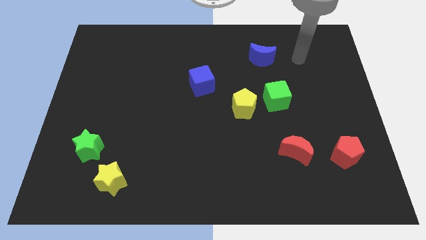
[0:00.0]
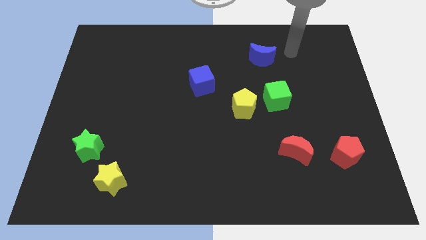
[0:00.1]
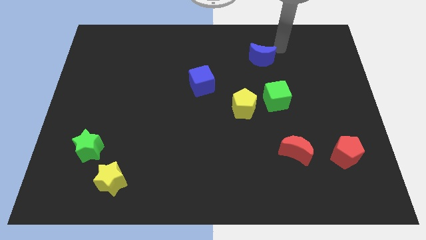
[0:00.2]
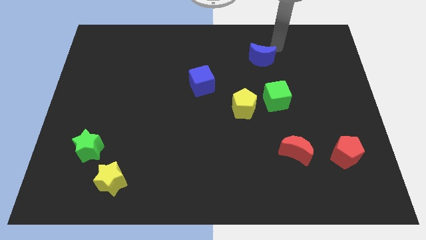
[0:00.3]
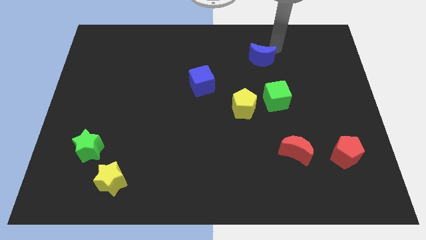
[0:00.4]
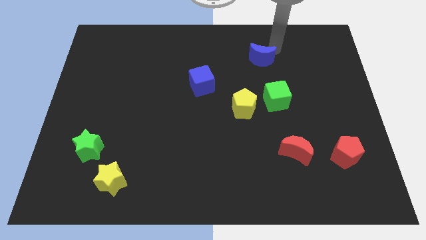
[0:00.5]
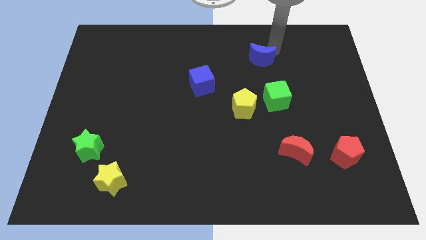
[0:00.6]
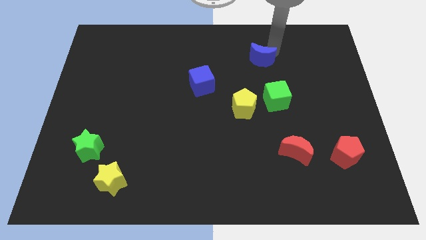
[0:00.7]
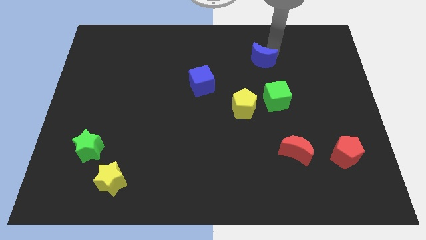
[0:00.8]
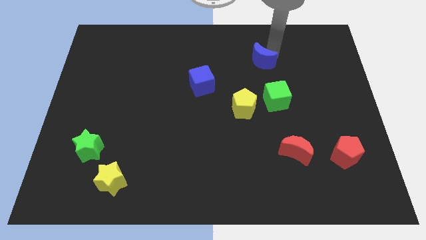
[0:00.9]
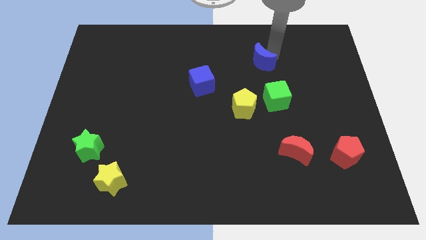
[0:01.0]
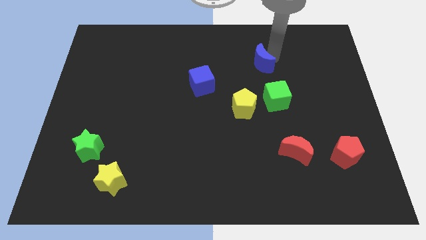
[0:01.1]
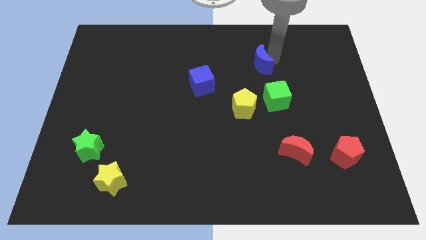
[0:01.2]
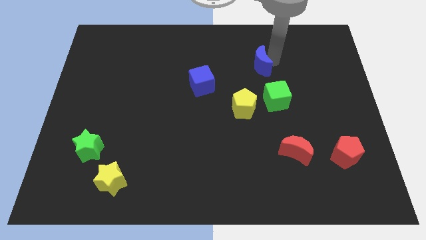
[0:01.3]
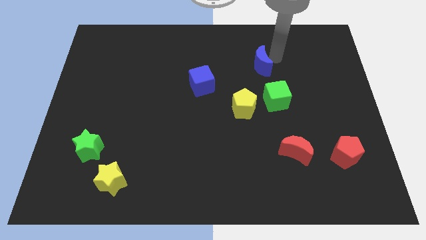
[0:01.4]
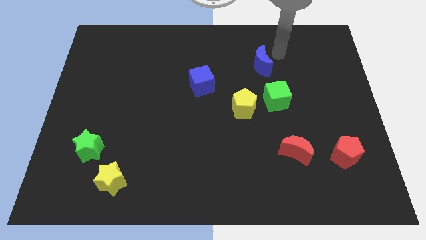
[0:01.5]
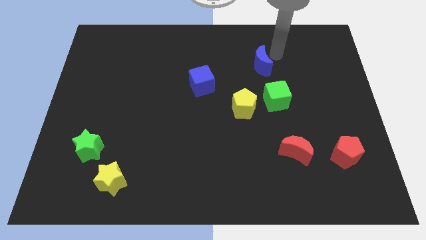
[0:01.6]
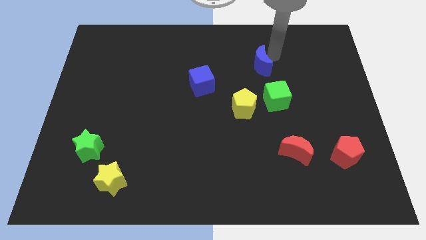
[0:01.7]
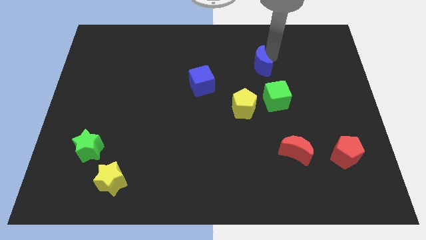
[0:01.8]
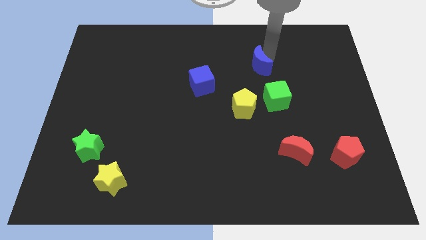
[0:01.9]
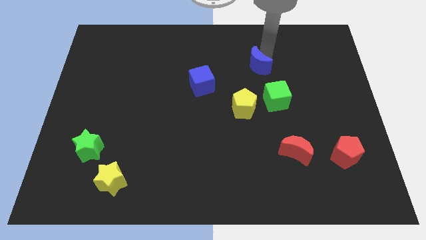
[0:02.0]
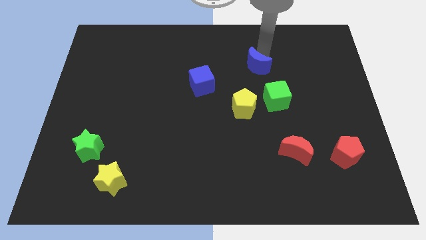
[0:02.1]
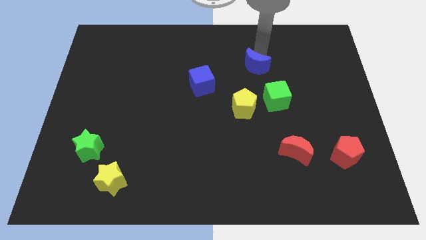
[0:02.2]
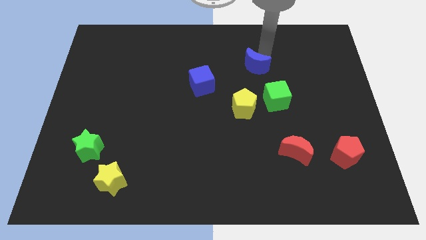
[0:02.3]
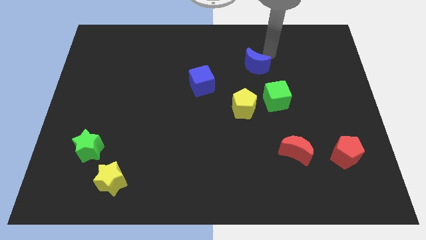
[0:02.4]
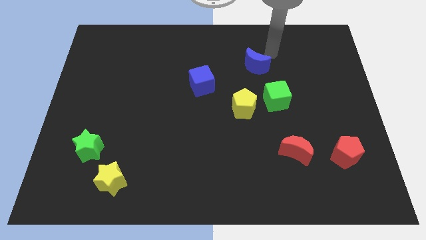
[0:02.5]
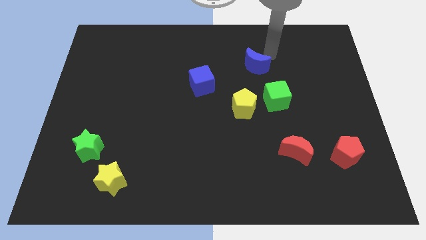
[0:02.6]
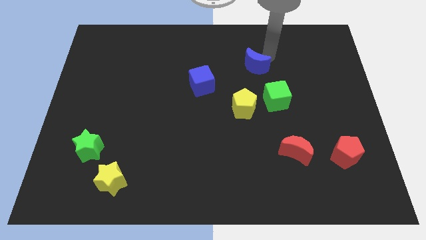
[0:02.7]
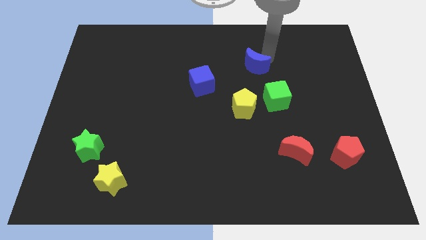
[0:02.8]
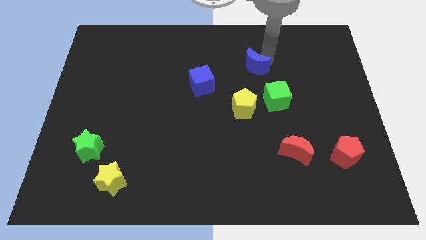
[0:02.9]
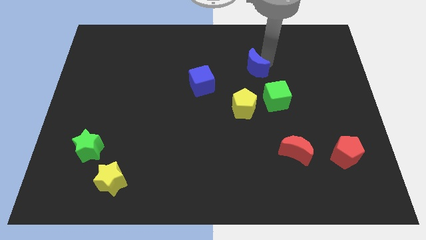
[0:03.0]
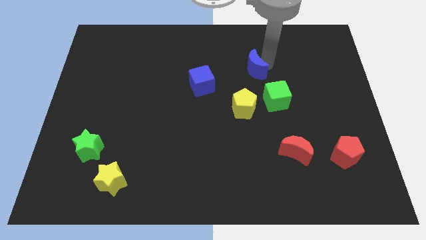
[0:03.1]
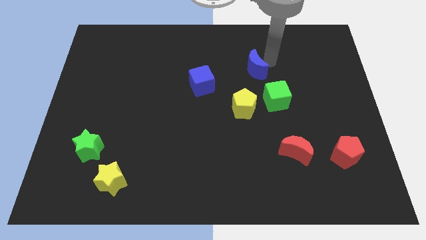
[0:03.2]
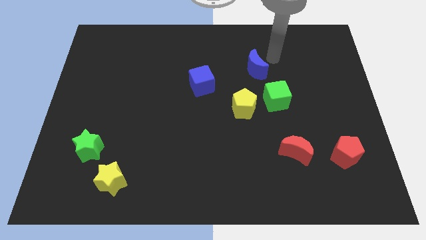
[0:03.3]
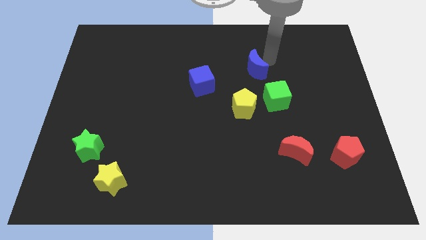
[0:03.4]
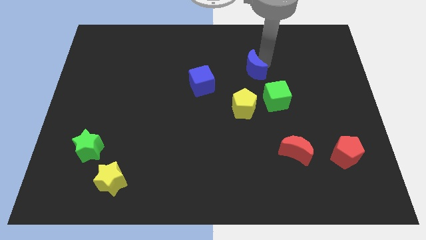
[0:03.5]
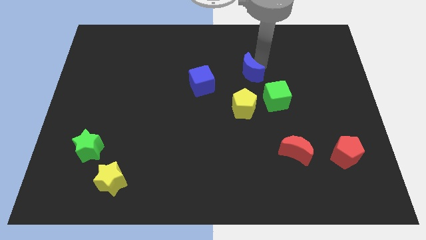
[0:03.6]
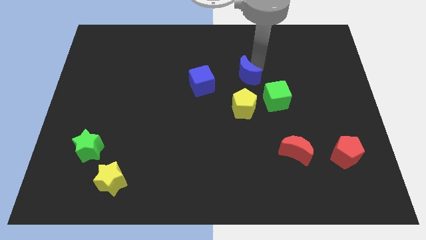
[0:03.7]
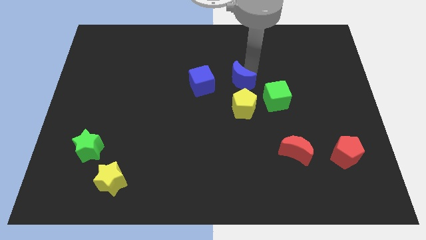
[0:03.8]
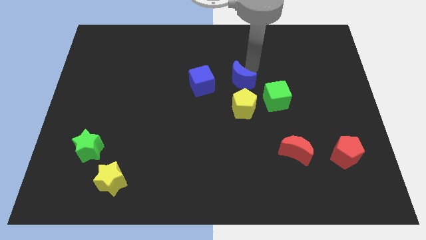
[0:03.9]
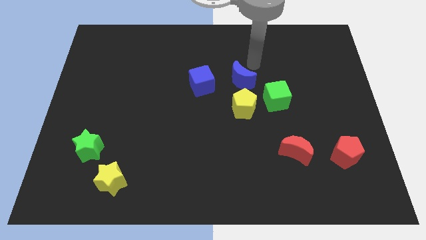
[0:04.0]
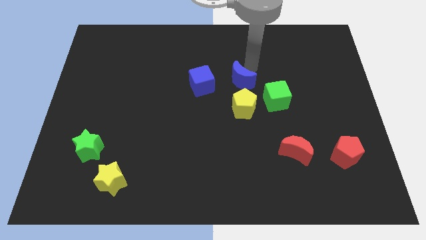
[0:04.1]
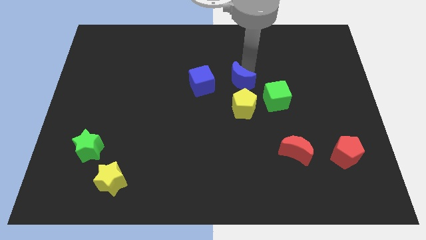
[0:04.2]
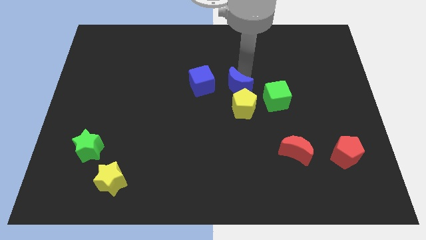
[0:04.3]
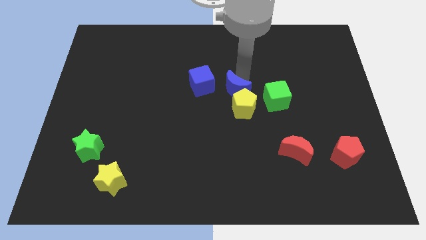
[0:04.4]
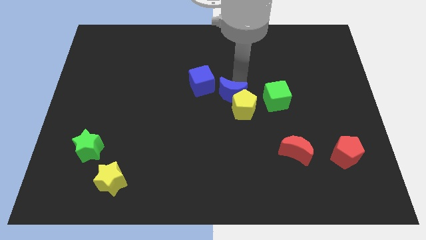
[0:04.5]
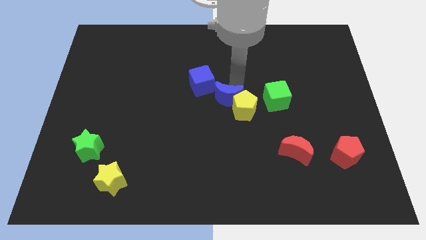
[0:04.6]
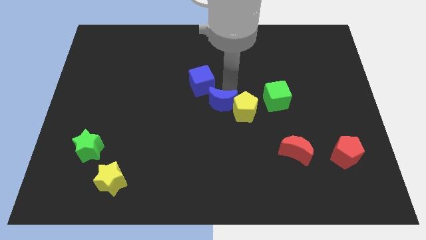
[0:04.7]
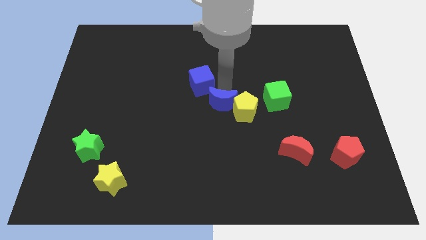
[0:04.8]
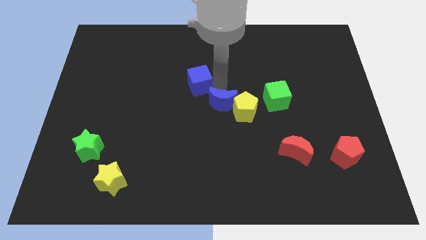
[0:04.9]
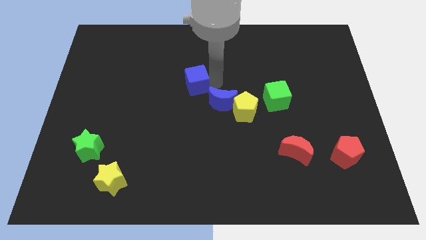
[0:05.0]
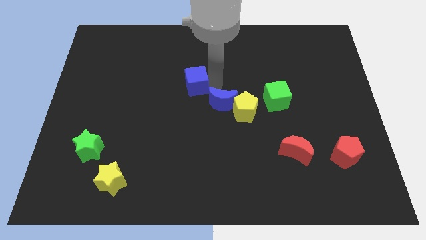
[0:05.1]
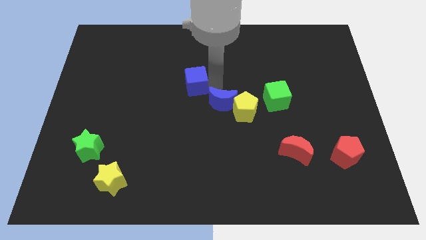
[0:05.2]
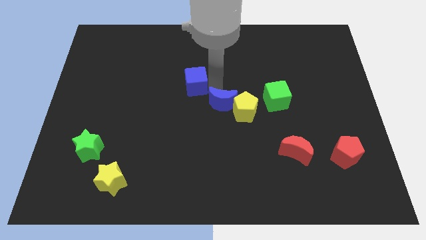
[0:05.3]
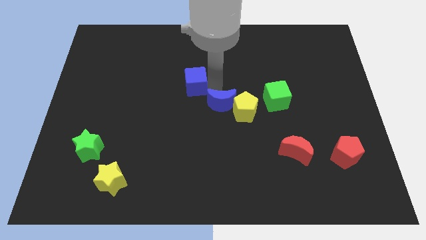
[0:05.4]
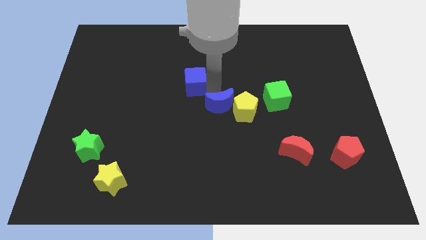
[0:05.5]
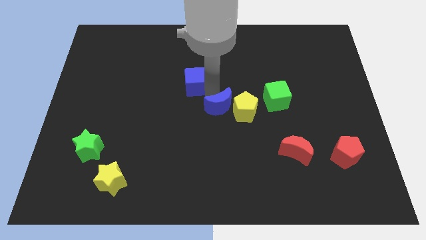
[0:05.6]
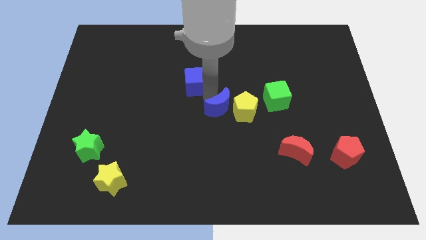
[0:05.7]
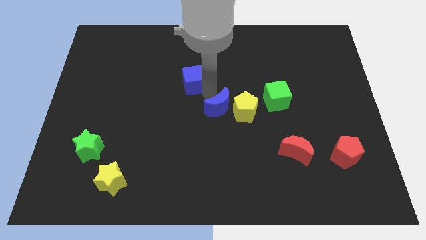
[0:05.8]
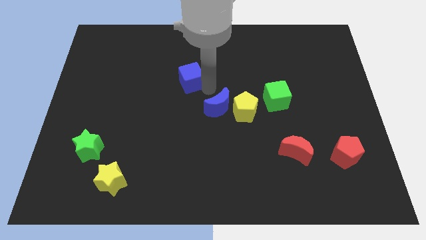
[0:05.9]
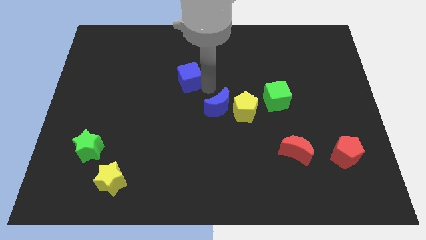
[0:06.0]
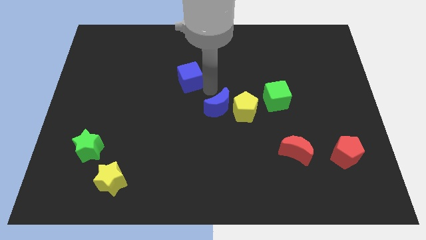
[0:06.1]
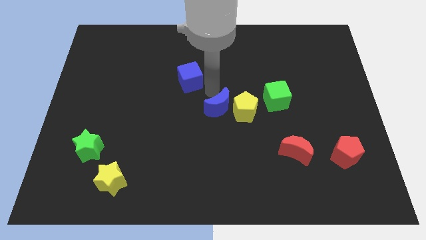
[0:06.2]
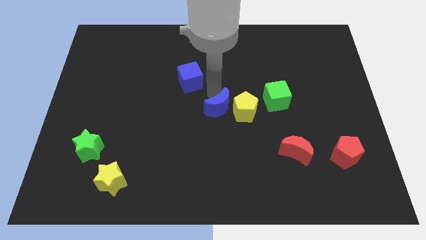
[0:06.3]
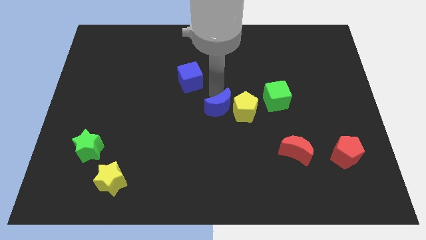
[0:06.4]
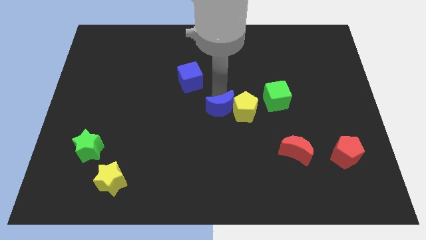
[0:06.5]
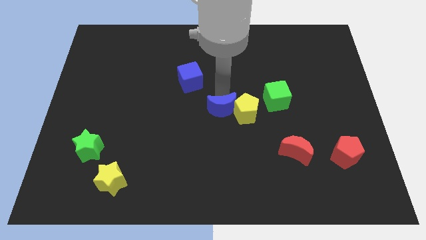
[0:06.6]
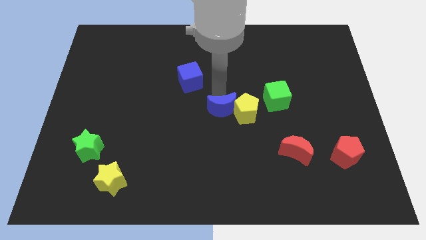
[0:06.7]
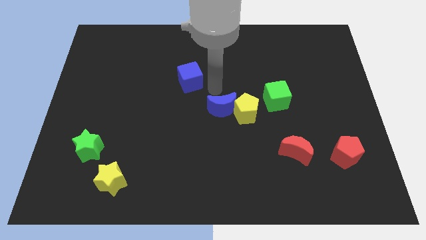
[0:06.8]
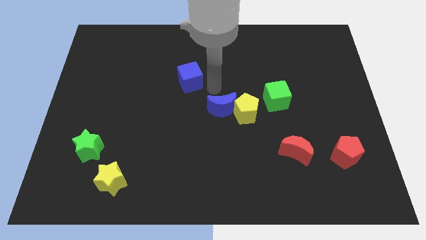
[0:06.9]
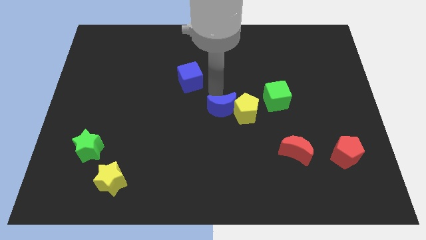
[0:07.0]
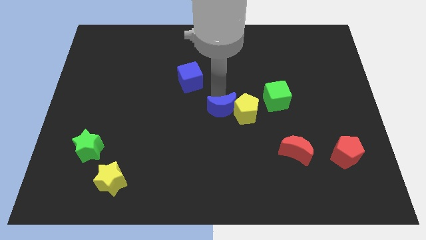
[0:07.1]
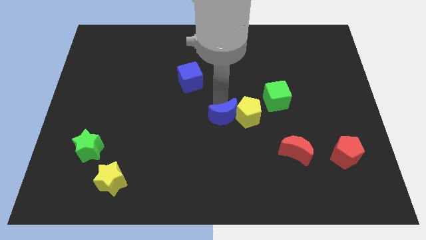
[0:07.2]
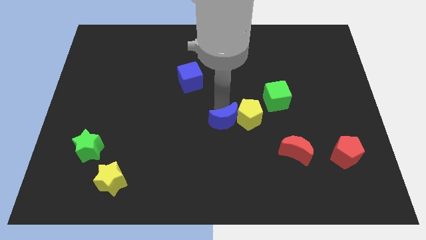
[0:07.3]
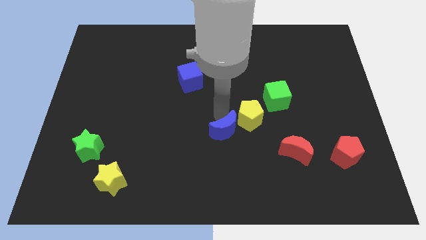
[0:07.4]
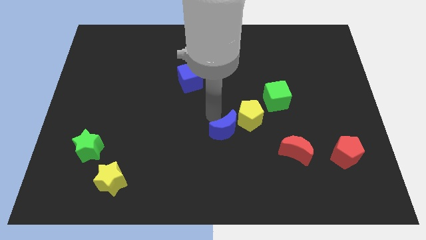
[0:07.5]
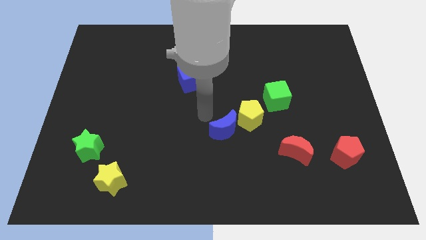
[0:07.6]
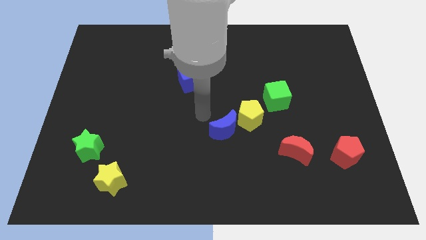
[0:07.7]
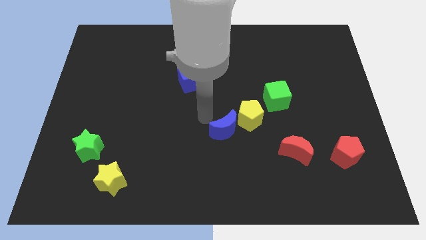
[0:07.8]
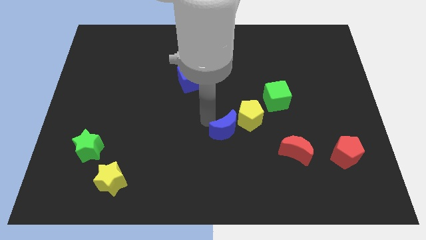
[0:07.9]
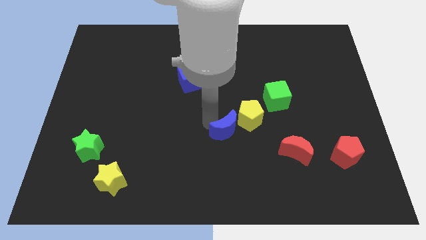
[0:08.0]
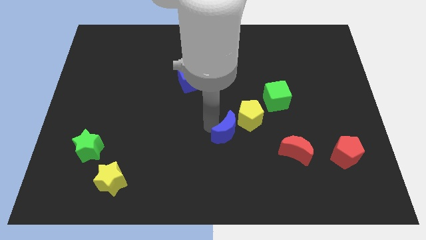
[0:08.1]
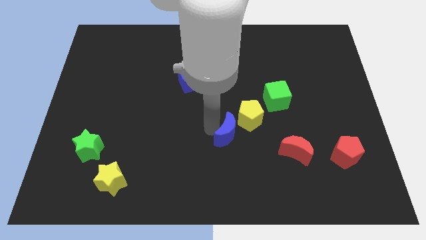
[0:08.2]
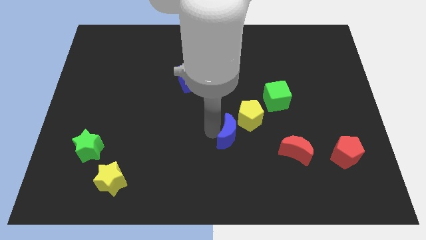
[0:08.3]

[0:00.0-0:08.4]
slide the blue moon down
